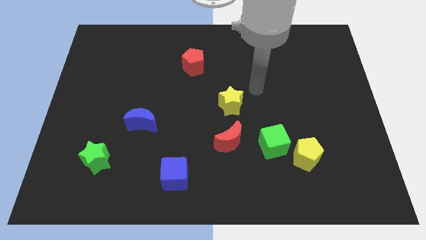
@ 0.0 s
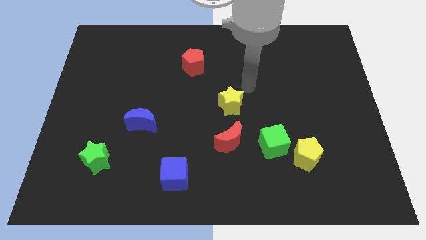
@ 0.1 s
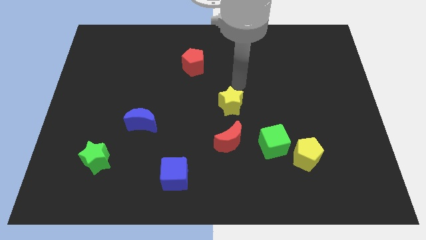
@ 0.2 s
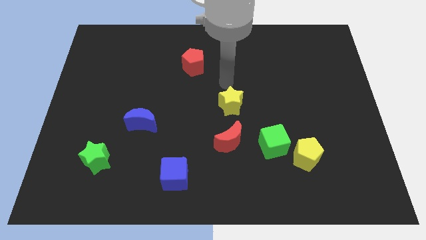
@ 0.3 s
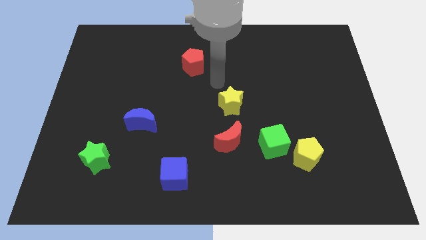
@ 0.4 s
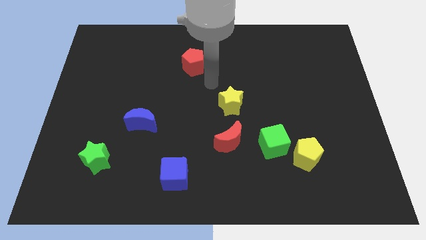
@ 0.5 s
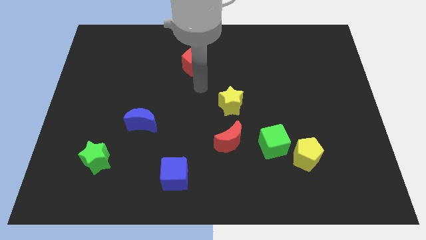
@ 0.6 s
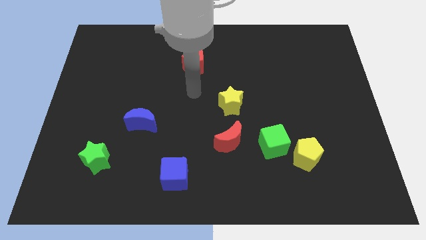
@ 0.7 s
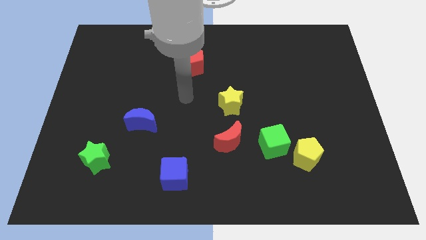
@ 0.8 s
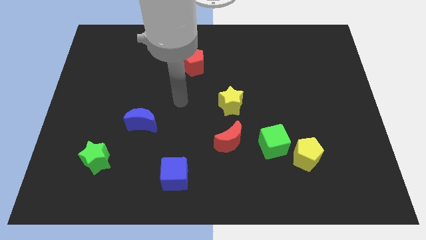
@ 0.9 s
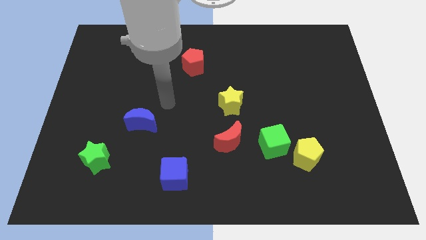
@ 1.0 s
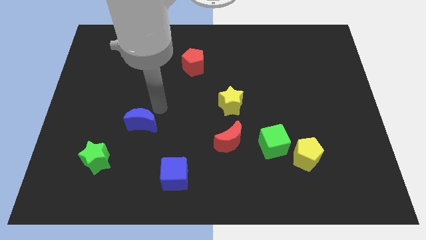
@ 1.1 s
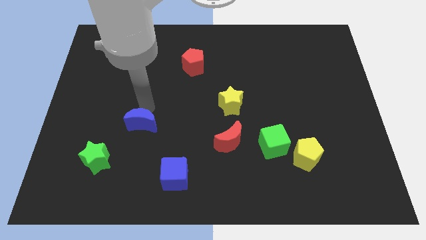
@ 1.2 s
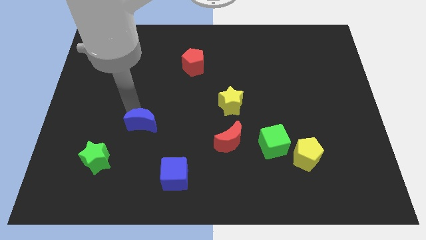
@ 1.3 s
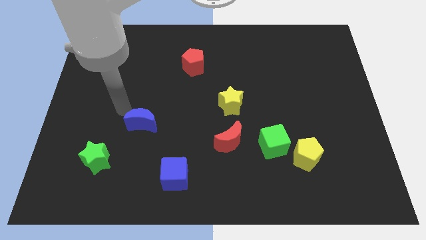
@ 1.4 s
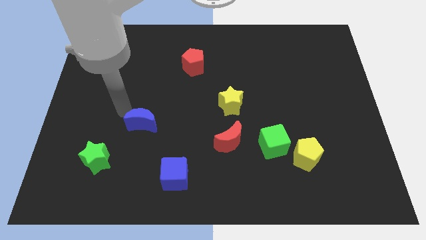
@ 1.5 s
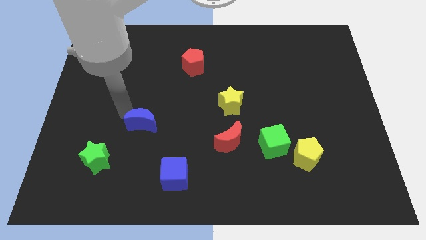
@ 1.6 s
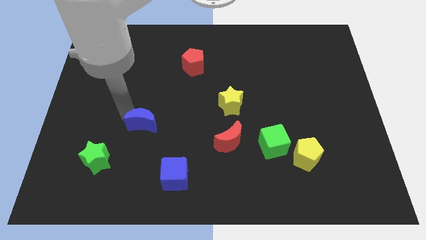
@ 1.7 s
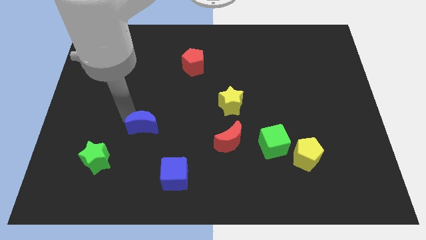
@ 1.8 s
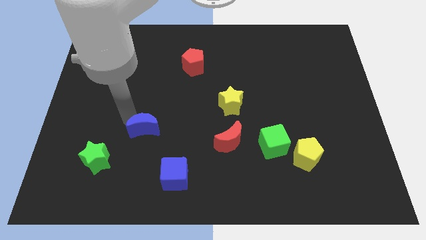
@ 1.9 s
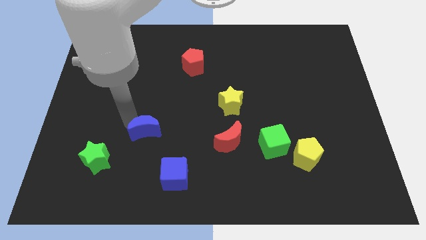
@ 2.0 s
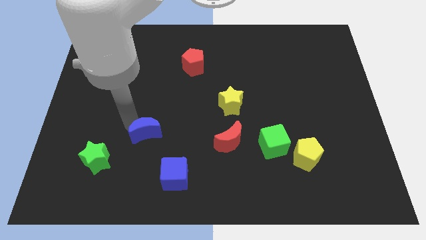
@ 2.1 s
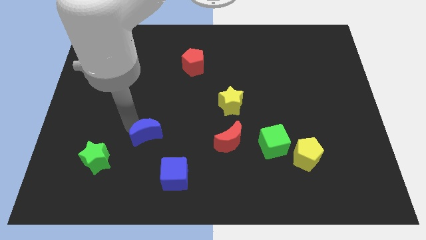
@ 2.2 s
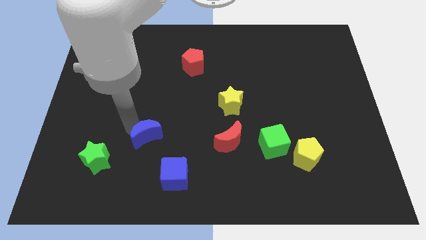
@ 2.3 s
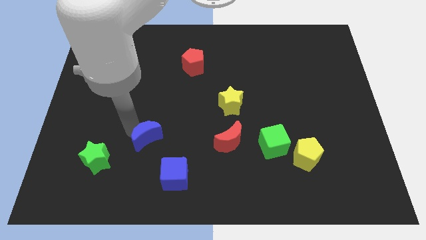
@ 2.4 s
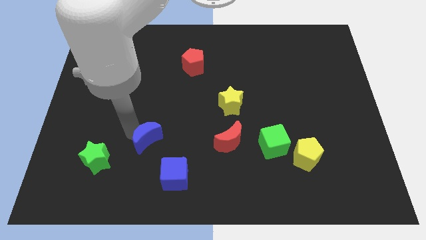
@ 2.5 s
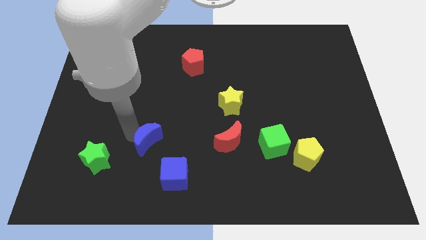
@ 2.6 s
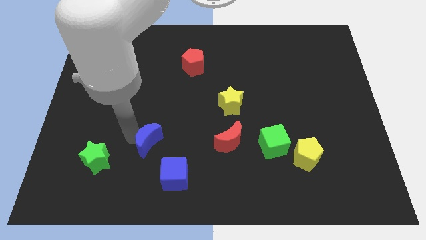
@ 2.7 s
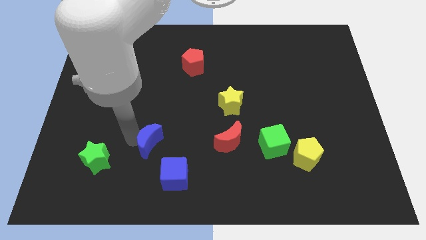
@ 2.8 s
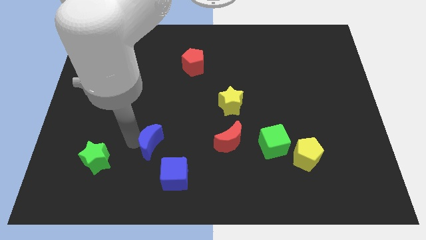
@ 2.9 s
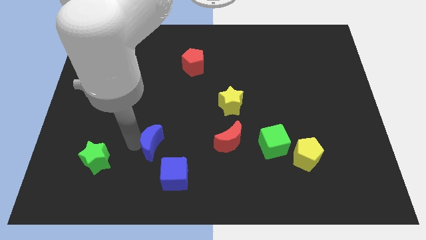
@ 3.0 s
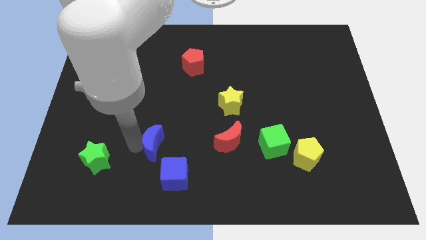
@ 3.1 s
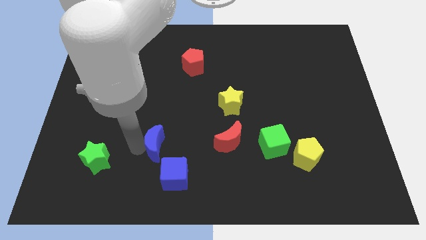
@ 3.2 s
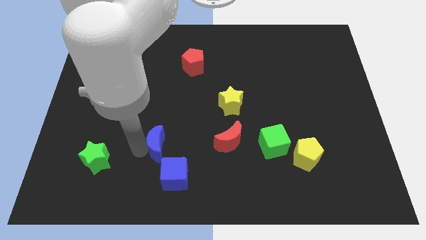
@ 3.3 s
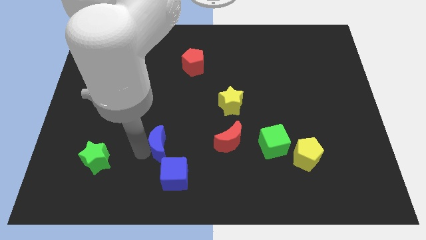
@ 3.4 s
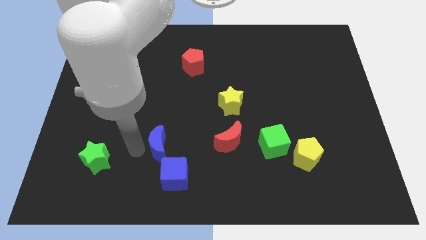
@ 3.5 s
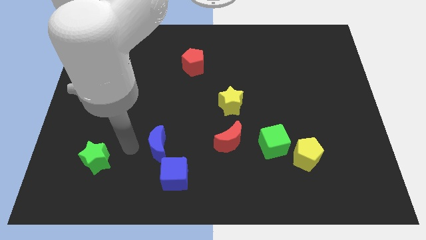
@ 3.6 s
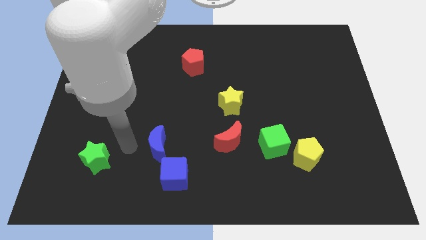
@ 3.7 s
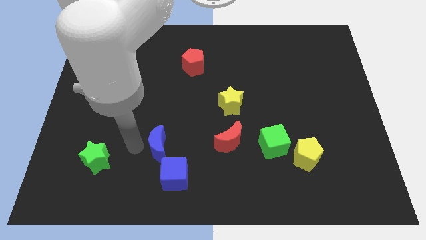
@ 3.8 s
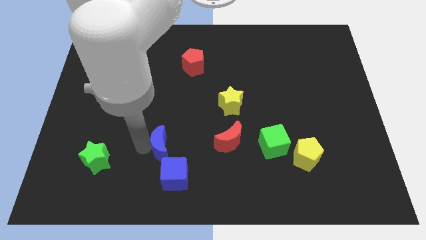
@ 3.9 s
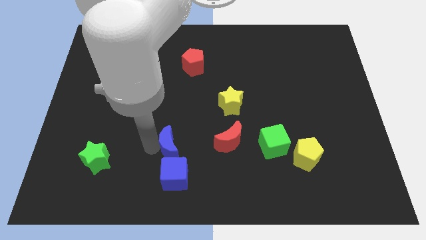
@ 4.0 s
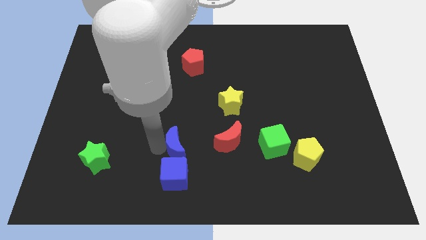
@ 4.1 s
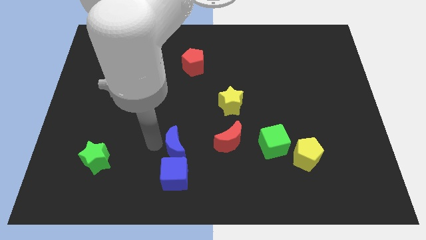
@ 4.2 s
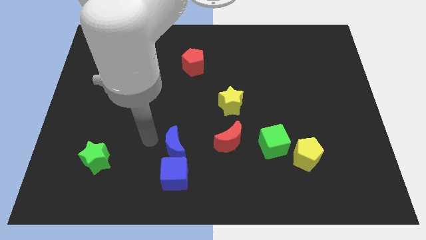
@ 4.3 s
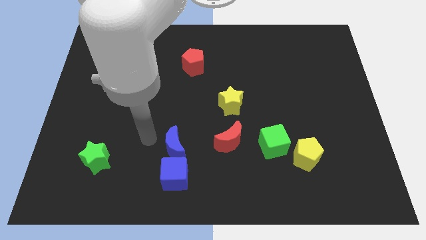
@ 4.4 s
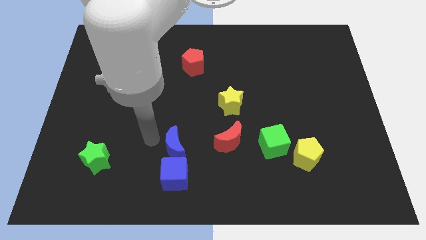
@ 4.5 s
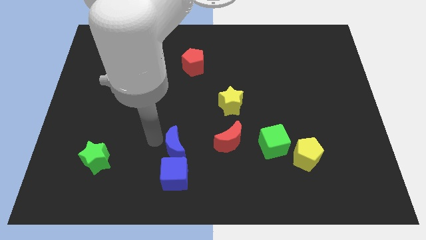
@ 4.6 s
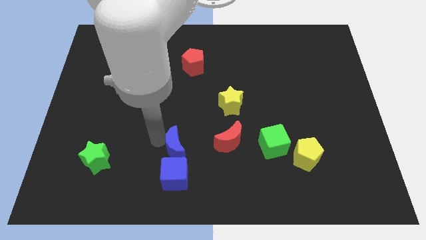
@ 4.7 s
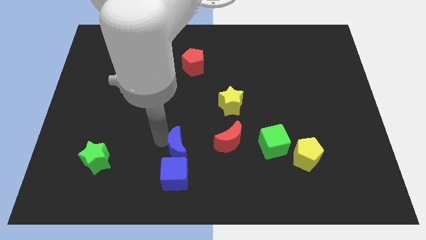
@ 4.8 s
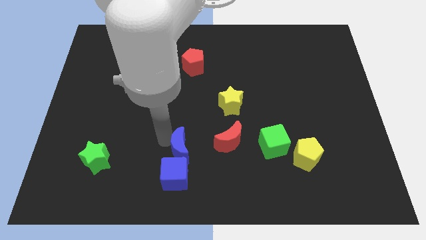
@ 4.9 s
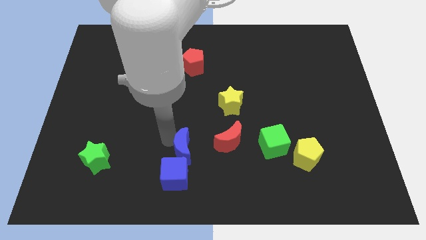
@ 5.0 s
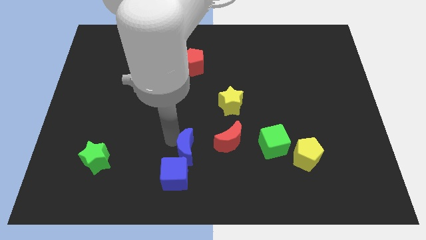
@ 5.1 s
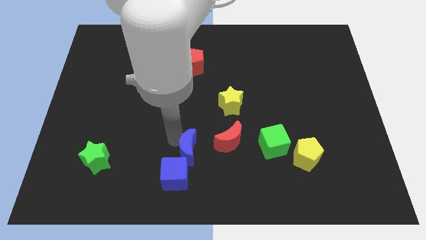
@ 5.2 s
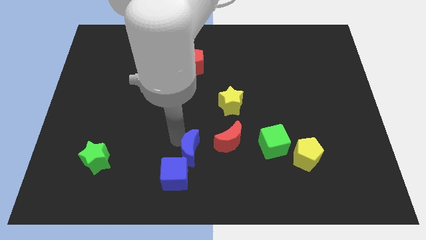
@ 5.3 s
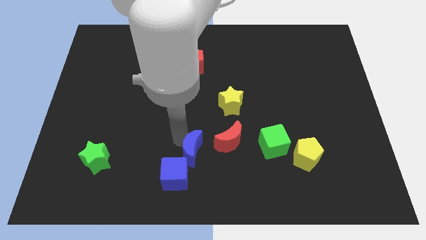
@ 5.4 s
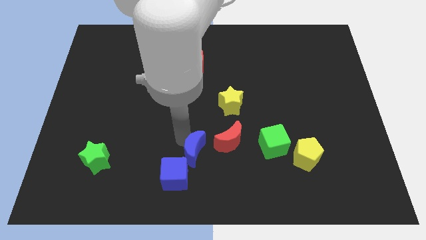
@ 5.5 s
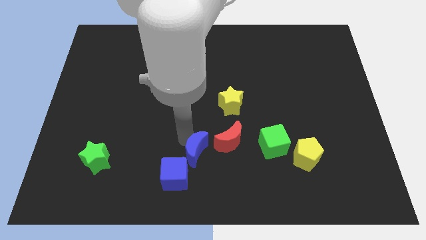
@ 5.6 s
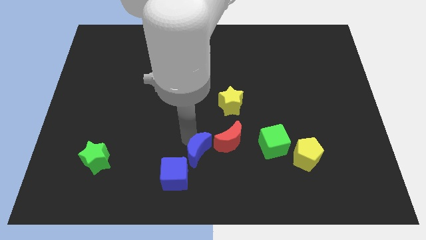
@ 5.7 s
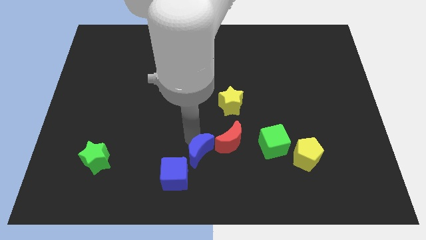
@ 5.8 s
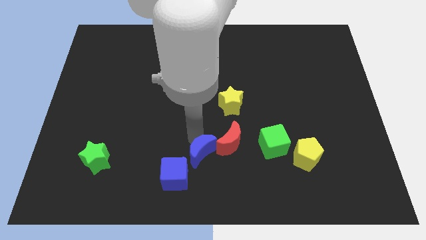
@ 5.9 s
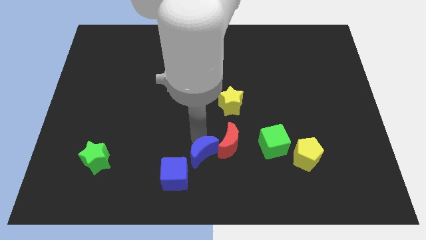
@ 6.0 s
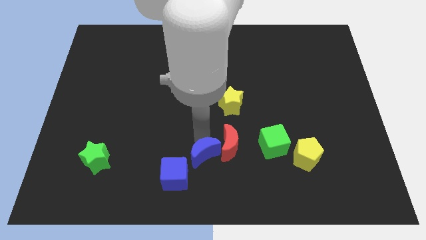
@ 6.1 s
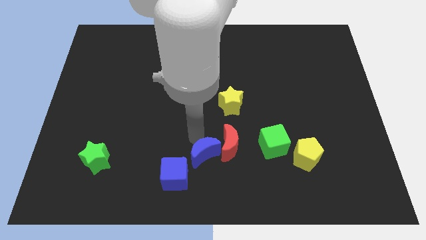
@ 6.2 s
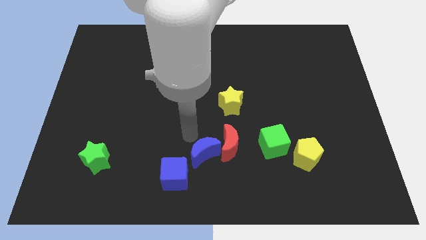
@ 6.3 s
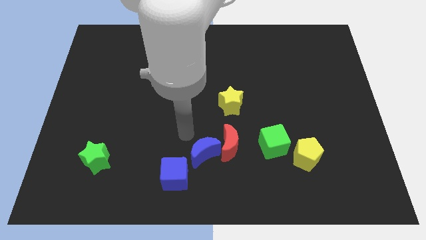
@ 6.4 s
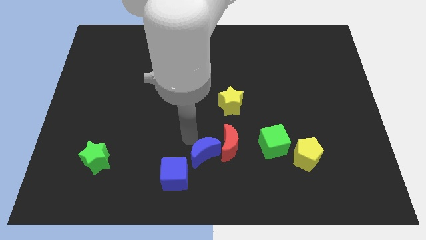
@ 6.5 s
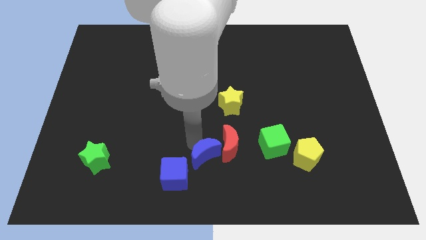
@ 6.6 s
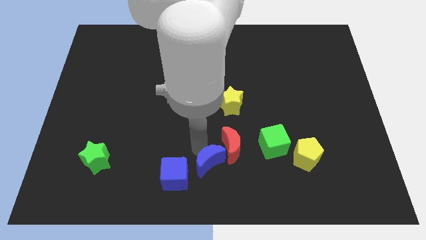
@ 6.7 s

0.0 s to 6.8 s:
slide the blue moon to the right of the blue cube

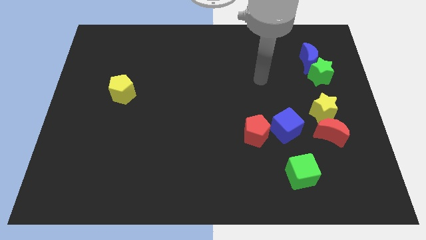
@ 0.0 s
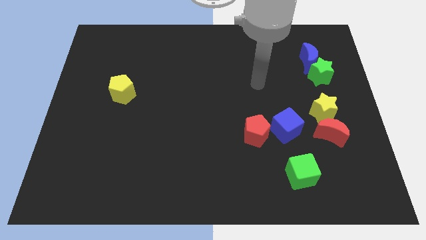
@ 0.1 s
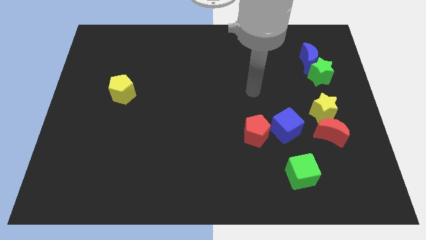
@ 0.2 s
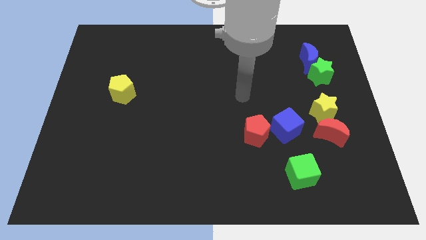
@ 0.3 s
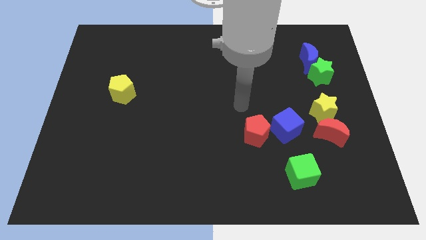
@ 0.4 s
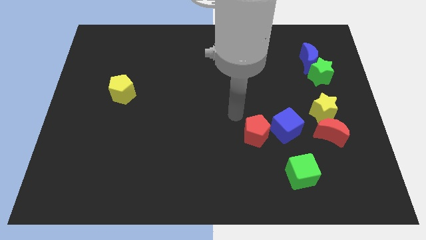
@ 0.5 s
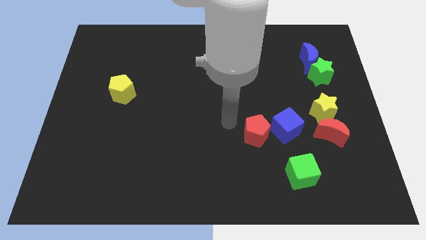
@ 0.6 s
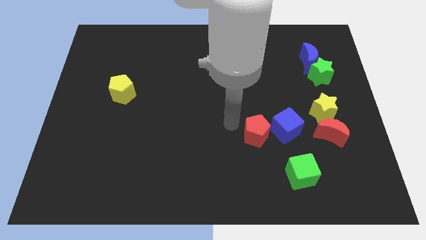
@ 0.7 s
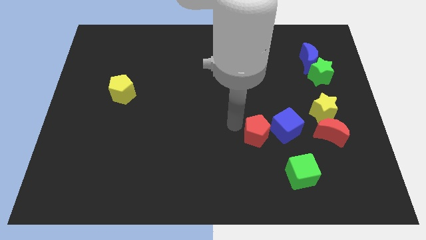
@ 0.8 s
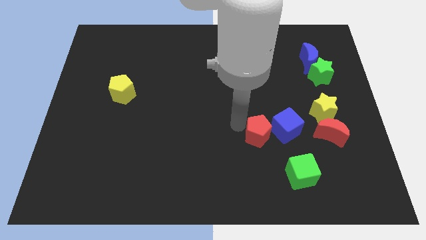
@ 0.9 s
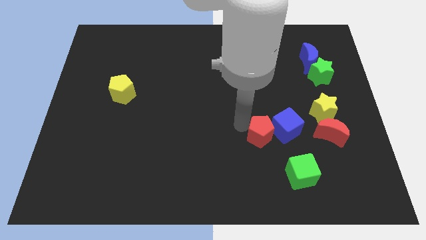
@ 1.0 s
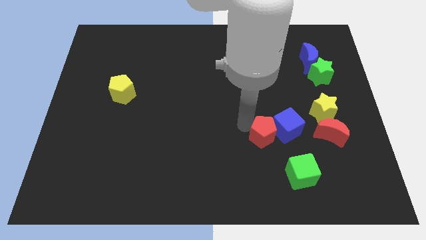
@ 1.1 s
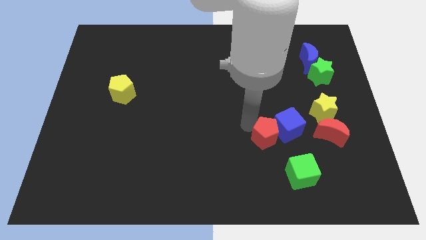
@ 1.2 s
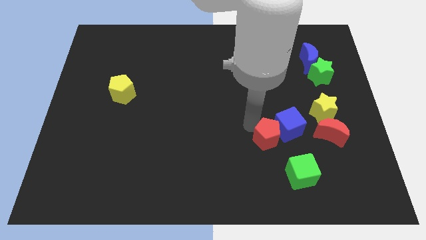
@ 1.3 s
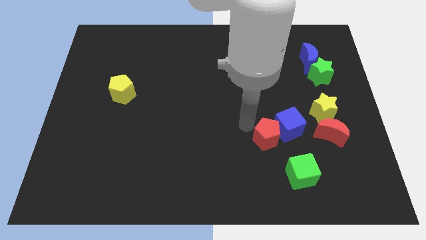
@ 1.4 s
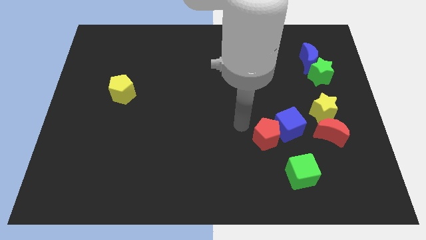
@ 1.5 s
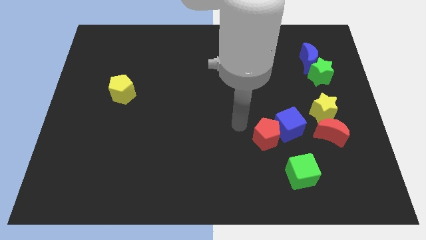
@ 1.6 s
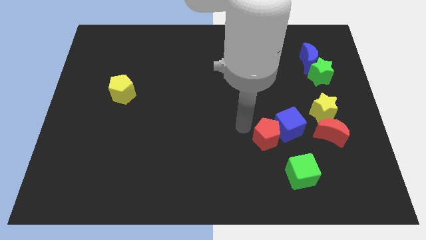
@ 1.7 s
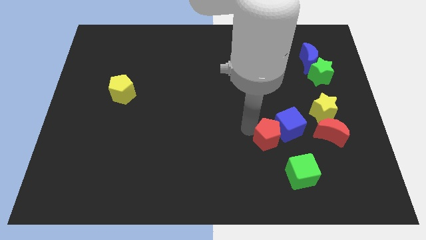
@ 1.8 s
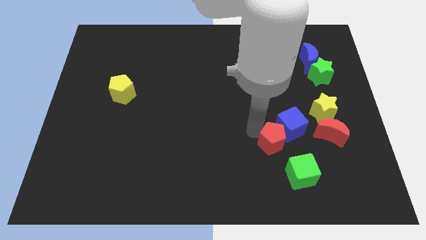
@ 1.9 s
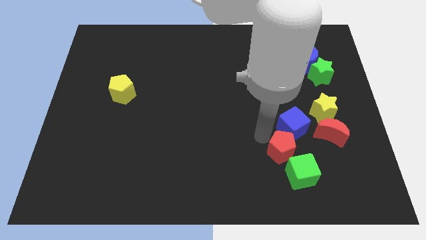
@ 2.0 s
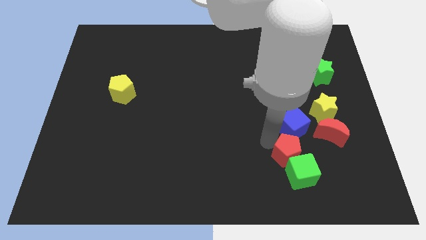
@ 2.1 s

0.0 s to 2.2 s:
push the red pentagon to the bottom left of the red moon
